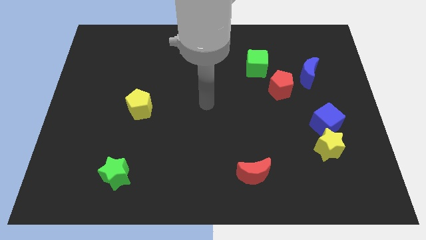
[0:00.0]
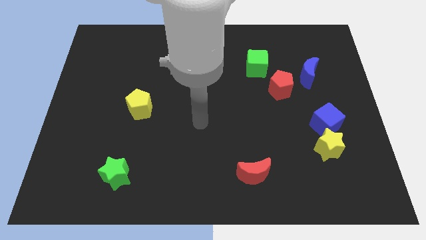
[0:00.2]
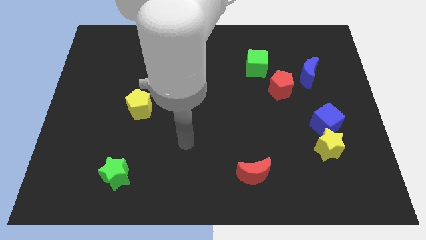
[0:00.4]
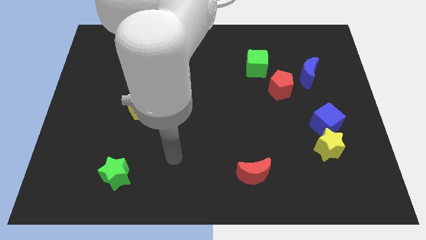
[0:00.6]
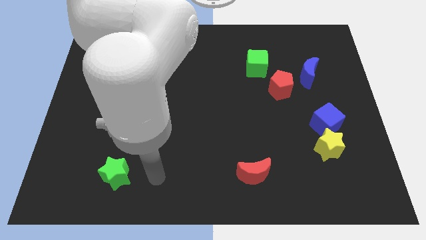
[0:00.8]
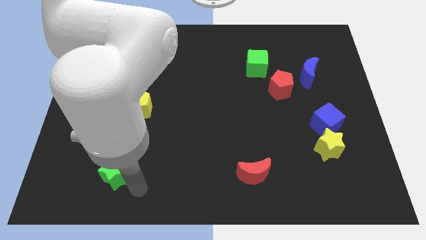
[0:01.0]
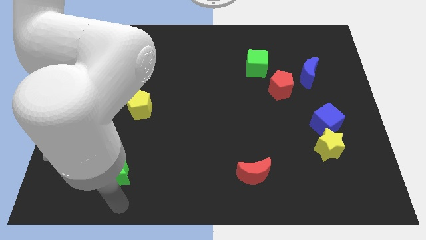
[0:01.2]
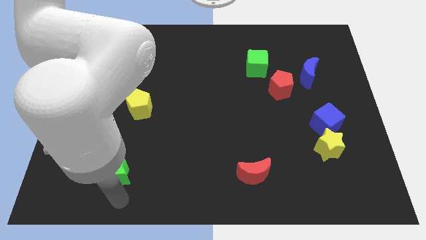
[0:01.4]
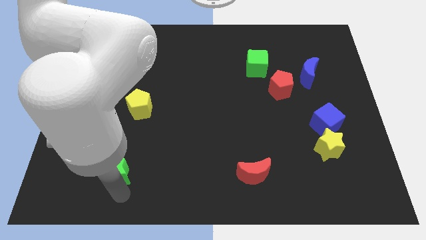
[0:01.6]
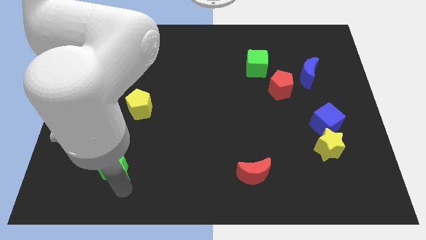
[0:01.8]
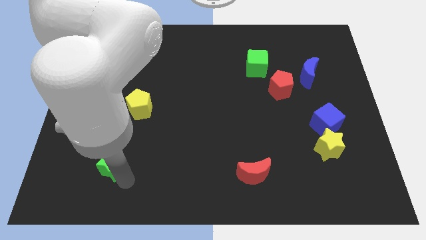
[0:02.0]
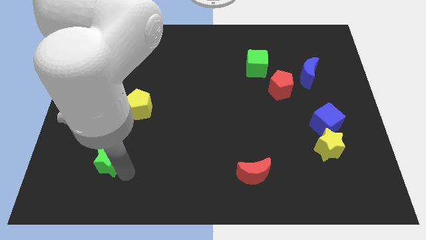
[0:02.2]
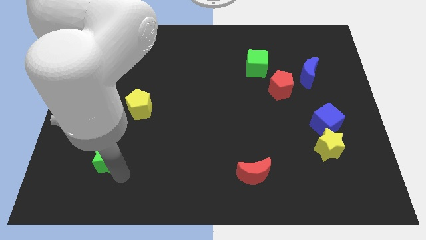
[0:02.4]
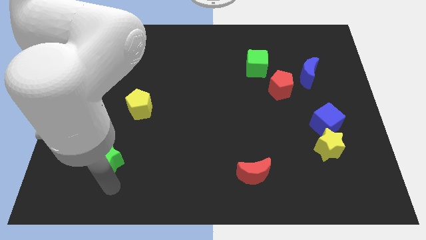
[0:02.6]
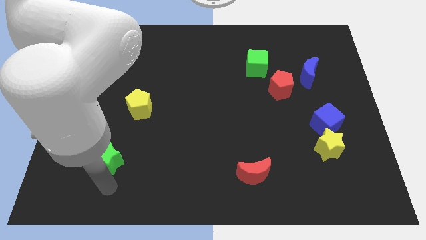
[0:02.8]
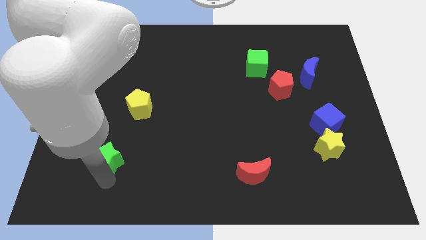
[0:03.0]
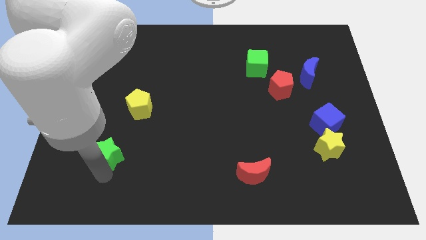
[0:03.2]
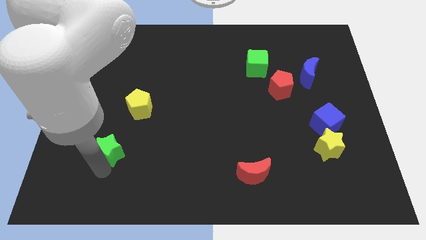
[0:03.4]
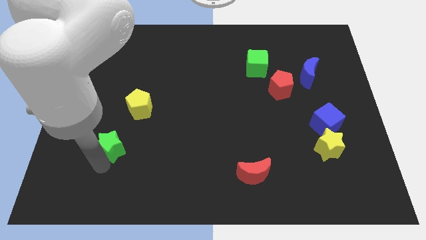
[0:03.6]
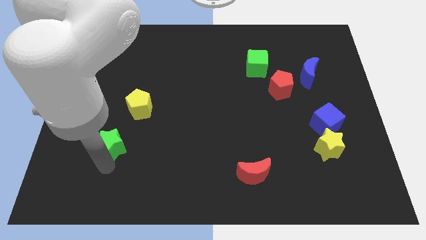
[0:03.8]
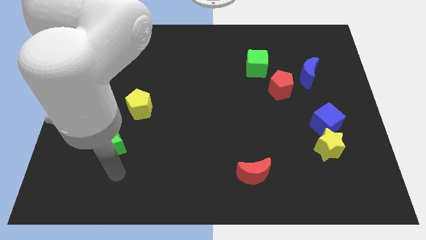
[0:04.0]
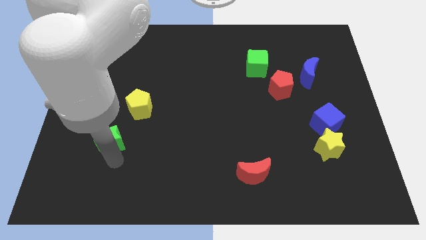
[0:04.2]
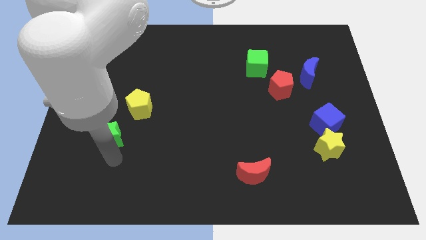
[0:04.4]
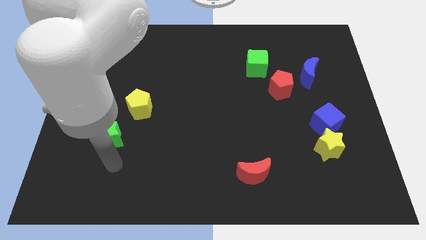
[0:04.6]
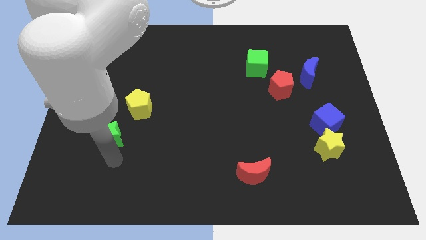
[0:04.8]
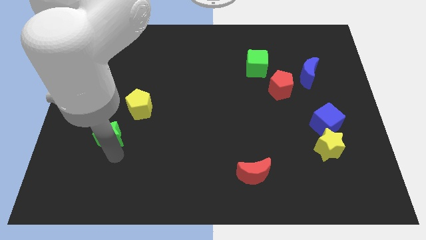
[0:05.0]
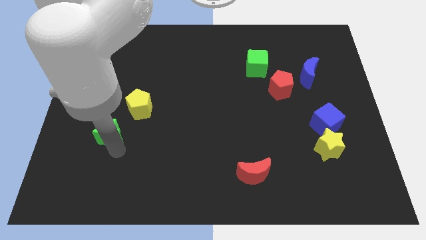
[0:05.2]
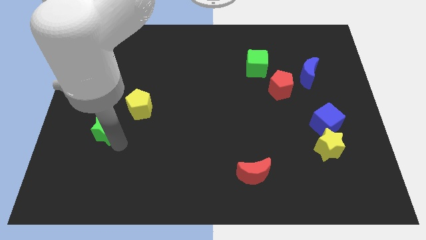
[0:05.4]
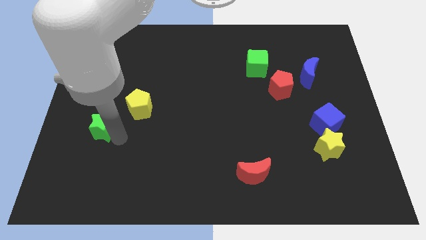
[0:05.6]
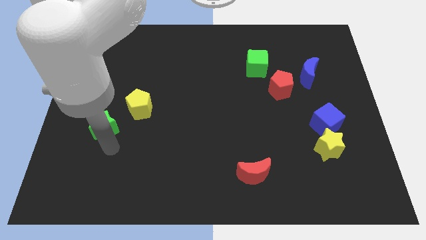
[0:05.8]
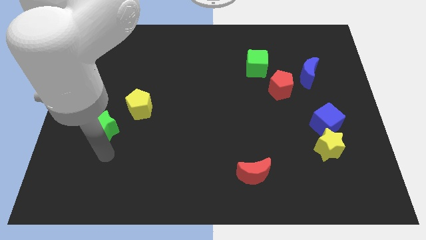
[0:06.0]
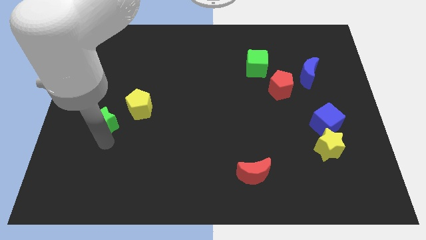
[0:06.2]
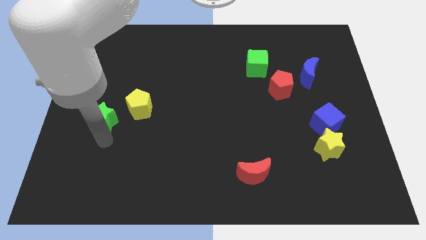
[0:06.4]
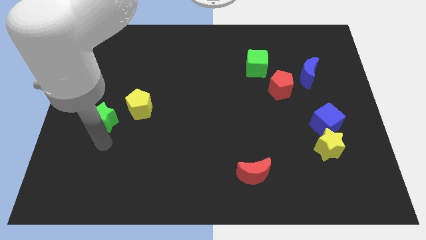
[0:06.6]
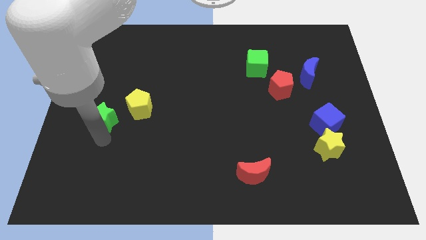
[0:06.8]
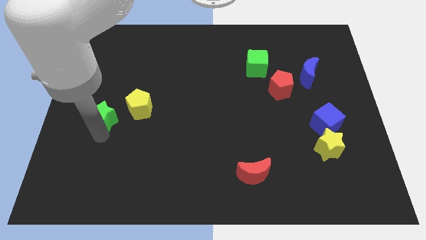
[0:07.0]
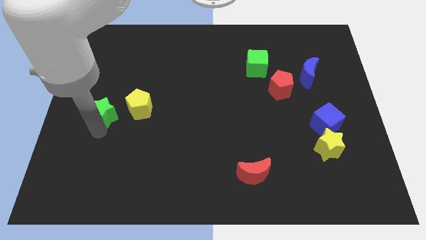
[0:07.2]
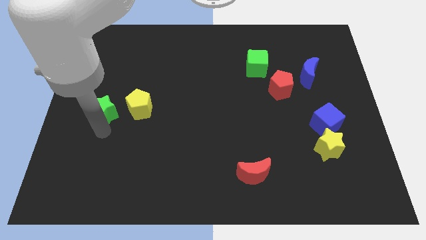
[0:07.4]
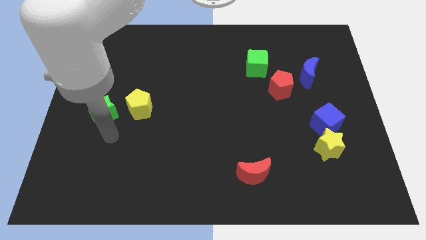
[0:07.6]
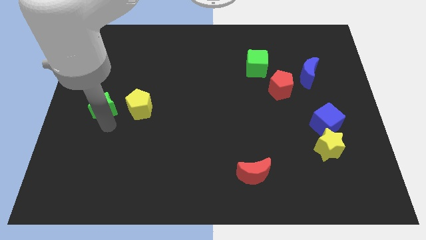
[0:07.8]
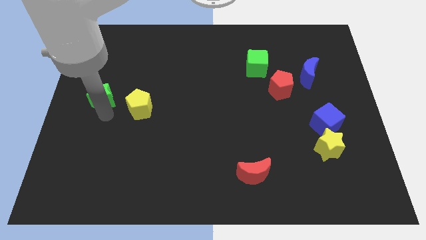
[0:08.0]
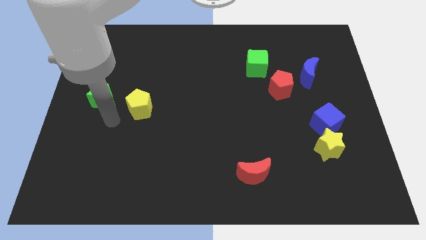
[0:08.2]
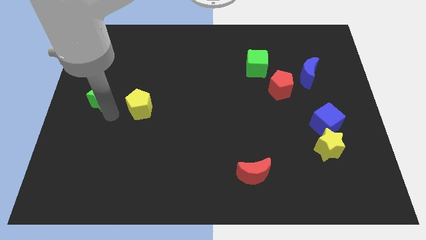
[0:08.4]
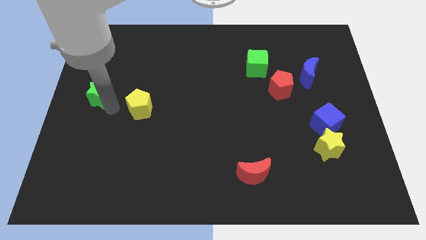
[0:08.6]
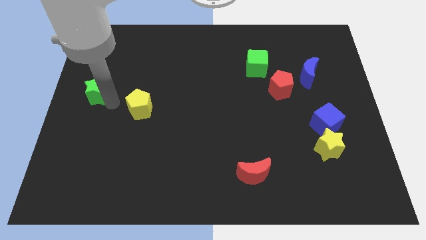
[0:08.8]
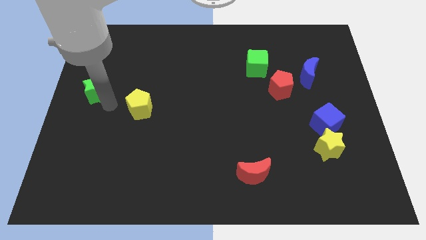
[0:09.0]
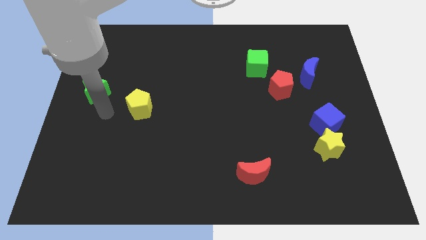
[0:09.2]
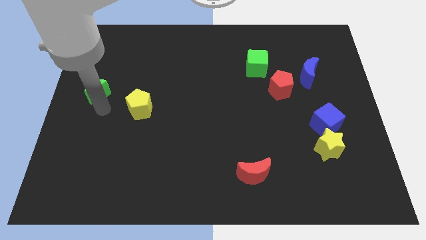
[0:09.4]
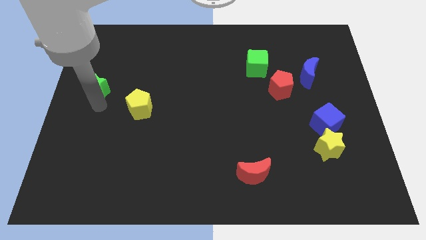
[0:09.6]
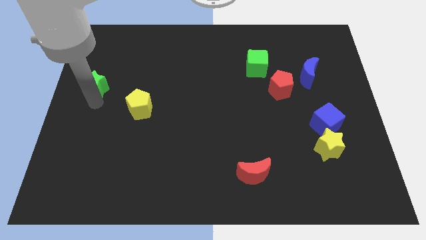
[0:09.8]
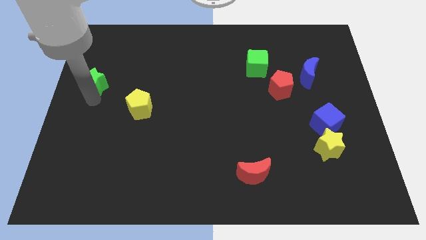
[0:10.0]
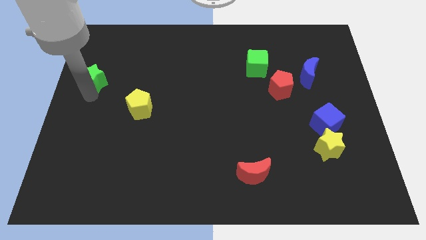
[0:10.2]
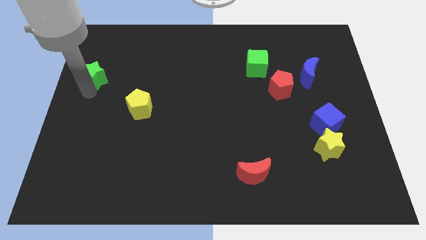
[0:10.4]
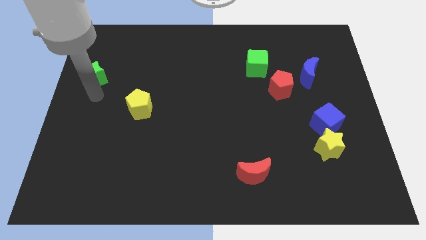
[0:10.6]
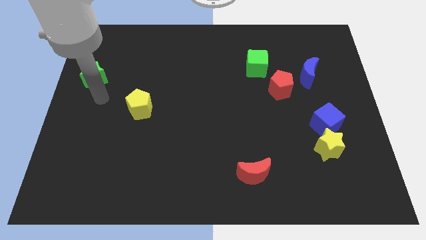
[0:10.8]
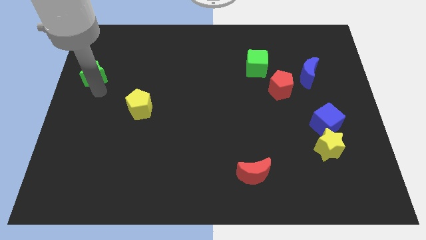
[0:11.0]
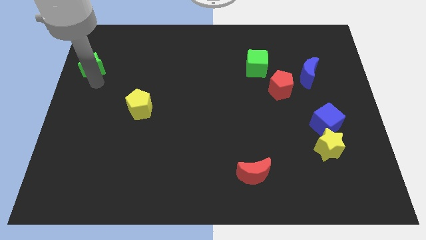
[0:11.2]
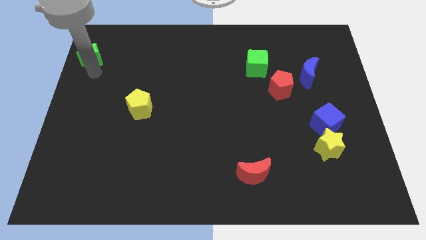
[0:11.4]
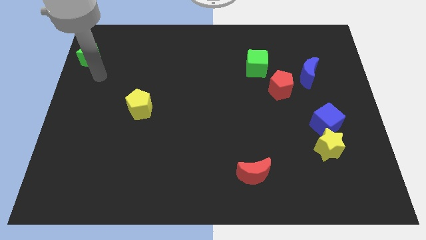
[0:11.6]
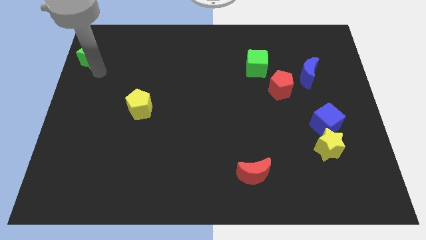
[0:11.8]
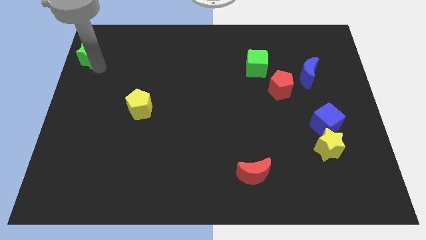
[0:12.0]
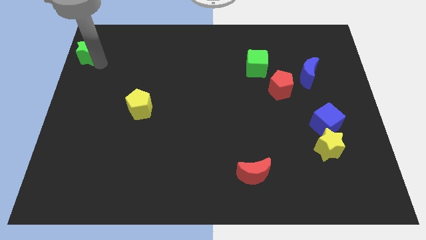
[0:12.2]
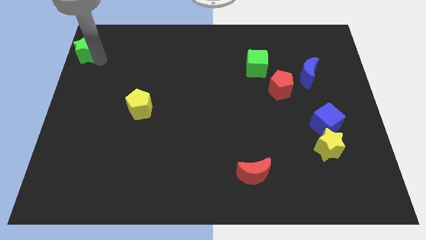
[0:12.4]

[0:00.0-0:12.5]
move the green star to the top left corner
